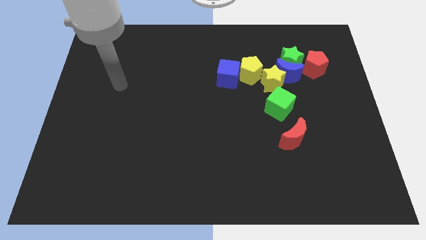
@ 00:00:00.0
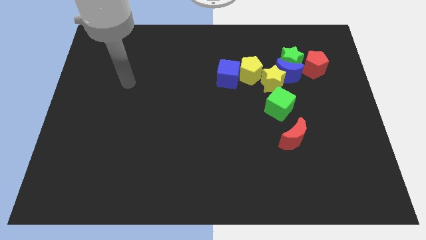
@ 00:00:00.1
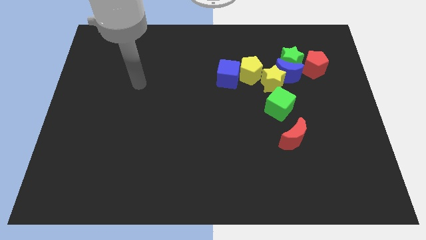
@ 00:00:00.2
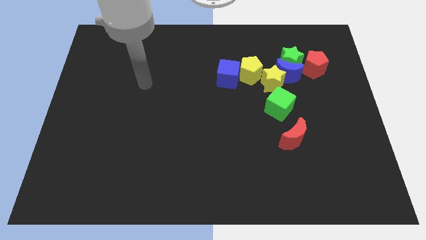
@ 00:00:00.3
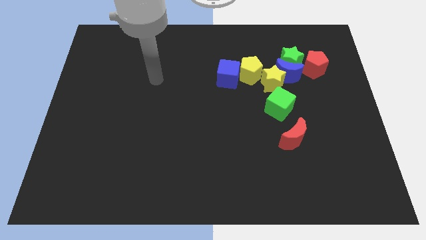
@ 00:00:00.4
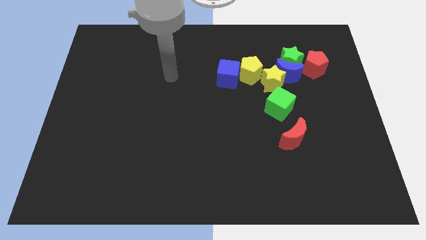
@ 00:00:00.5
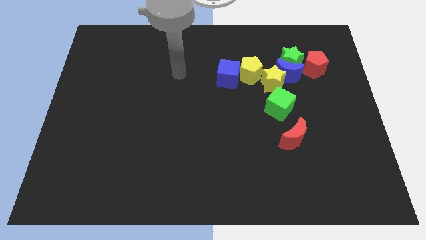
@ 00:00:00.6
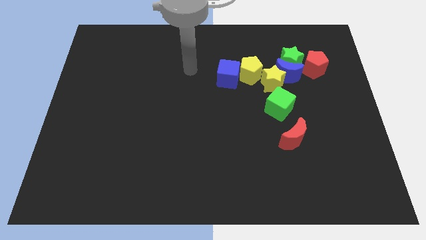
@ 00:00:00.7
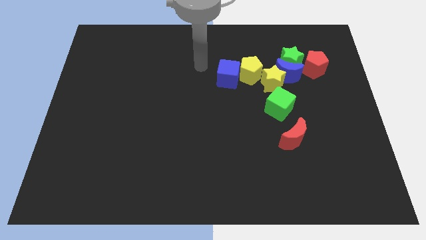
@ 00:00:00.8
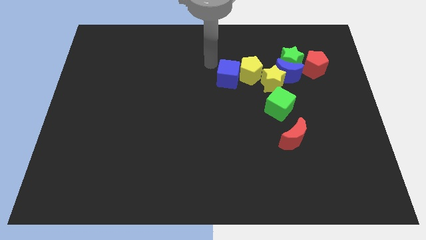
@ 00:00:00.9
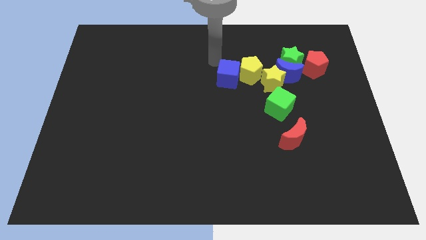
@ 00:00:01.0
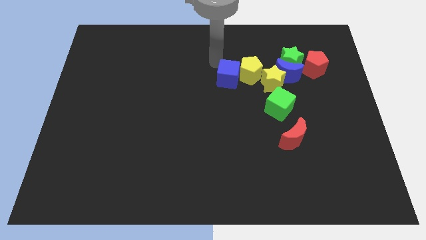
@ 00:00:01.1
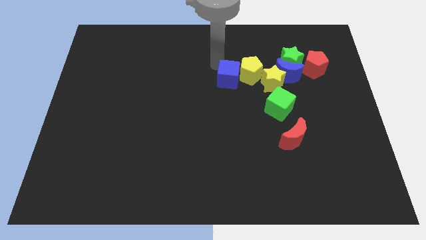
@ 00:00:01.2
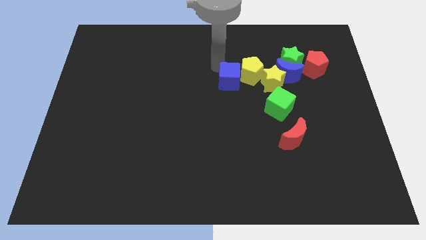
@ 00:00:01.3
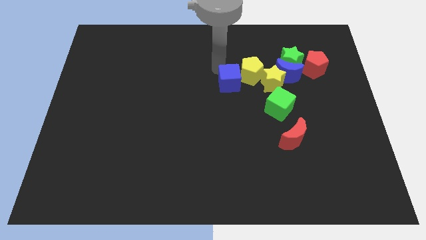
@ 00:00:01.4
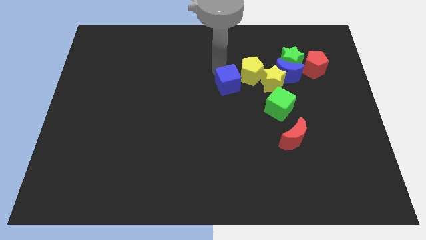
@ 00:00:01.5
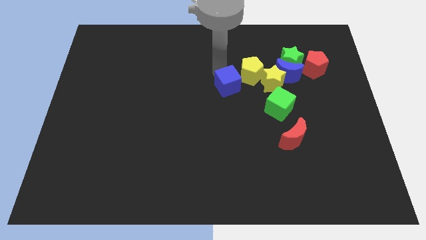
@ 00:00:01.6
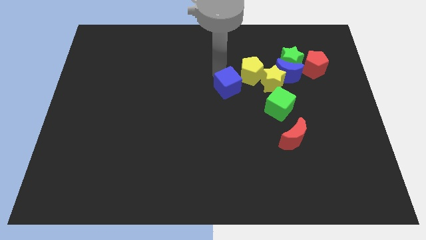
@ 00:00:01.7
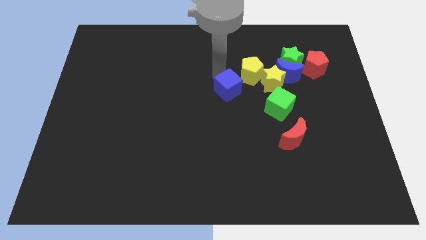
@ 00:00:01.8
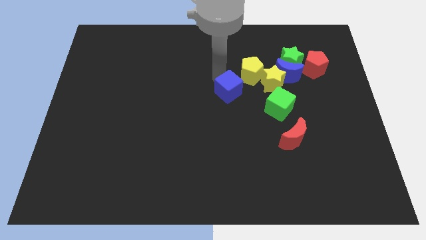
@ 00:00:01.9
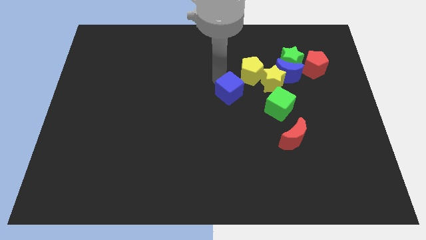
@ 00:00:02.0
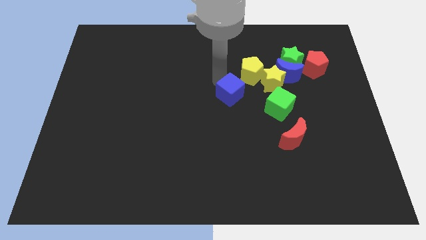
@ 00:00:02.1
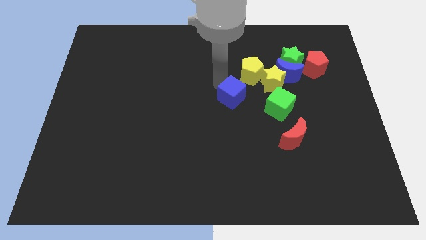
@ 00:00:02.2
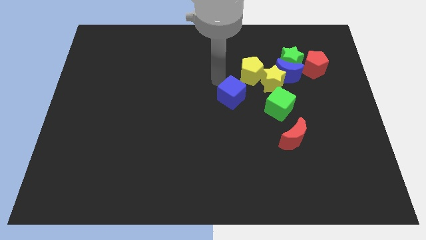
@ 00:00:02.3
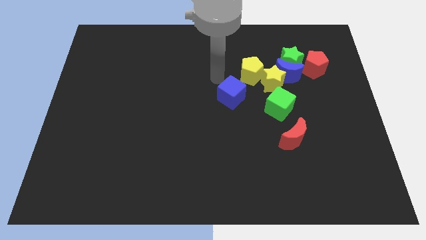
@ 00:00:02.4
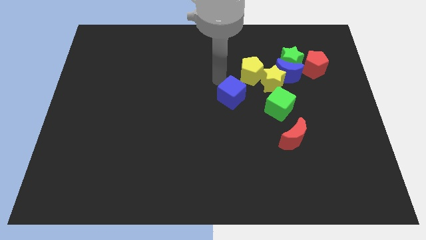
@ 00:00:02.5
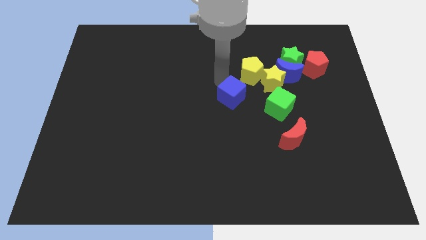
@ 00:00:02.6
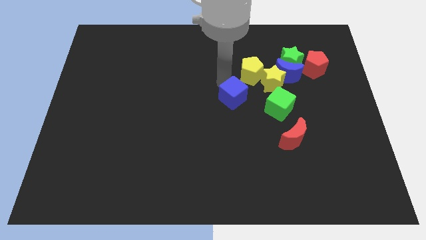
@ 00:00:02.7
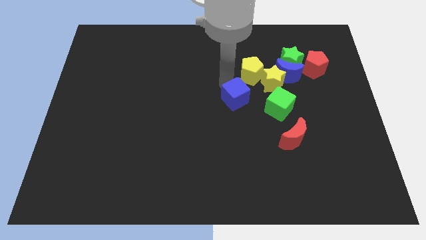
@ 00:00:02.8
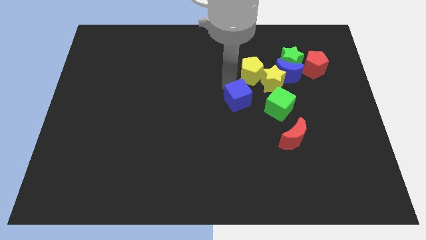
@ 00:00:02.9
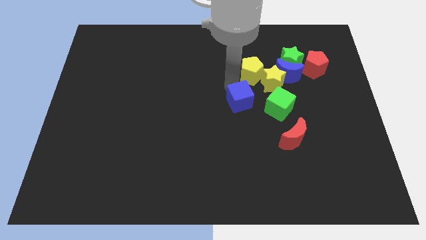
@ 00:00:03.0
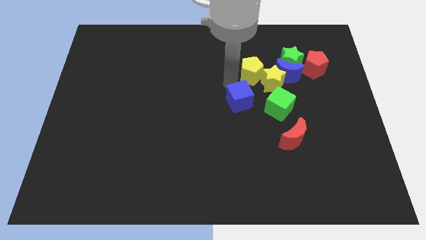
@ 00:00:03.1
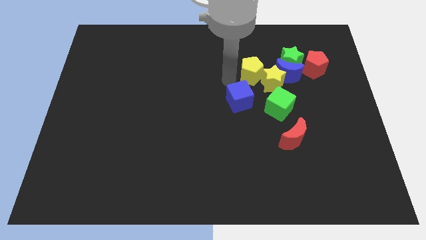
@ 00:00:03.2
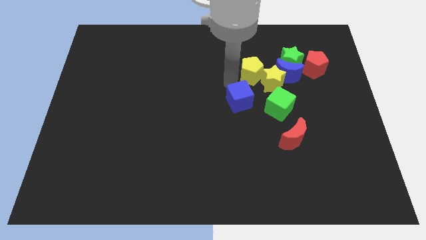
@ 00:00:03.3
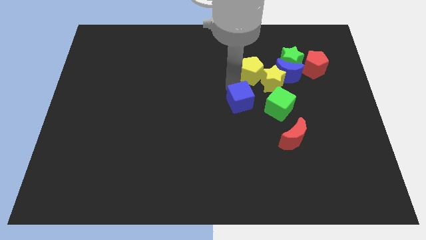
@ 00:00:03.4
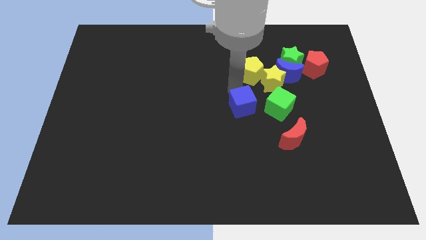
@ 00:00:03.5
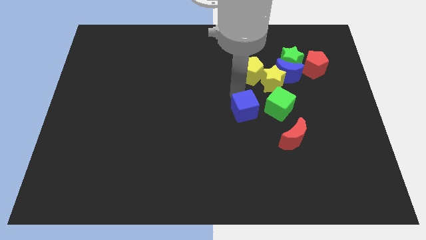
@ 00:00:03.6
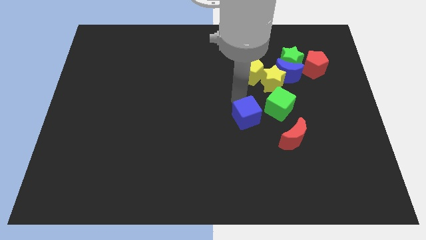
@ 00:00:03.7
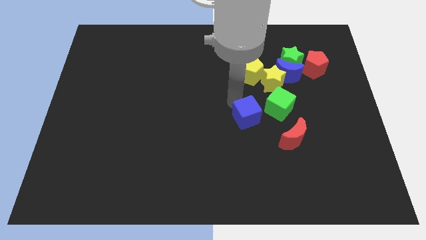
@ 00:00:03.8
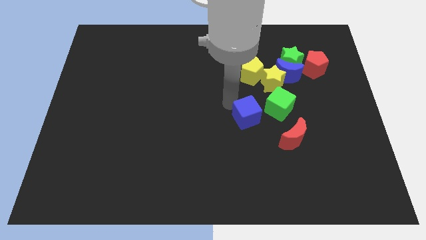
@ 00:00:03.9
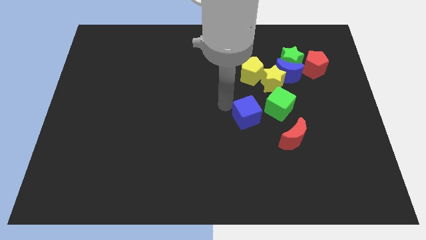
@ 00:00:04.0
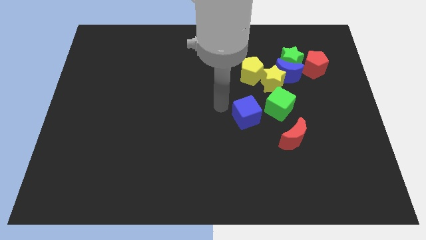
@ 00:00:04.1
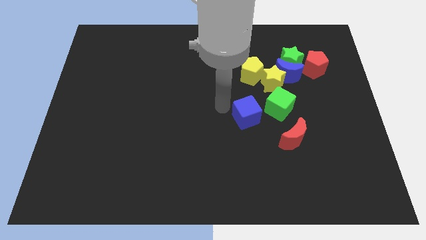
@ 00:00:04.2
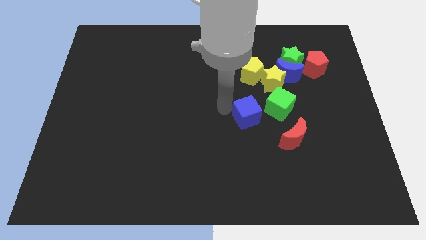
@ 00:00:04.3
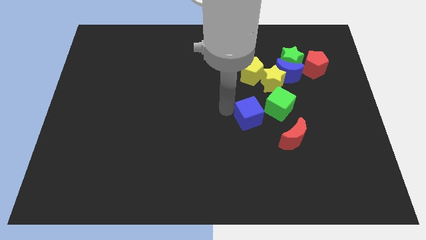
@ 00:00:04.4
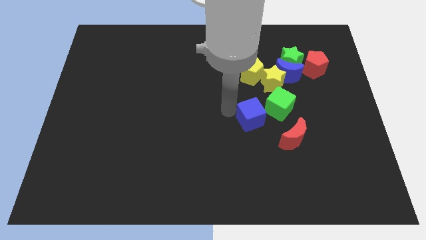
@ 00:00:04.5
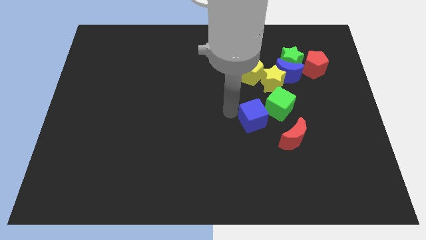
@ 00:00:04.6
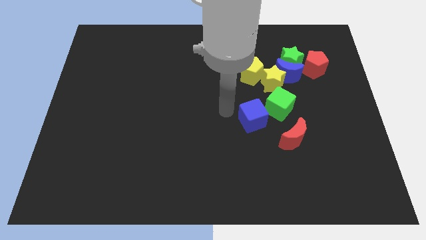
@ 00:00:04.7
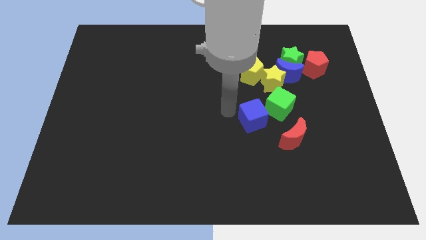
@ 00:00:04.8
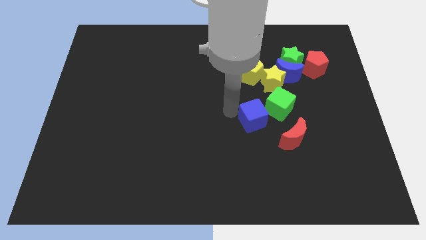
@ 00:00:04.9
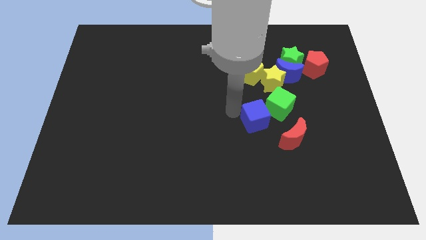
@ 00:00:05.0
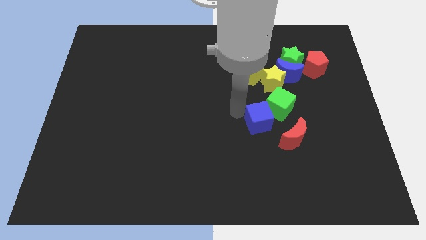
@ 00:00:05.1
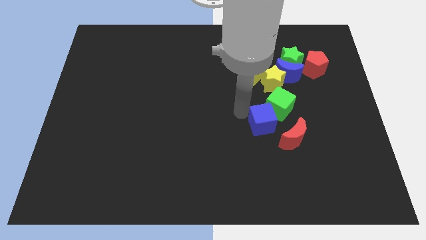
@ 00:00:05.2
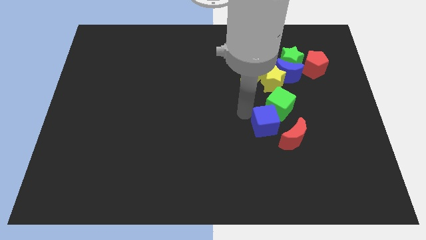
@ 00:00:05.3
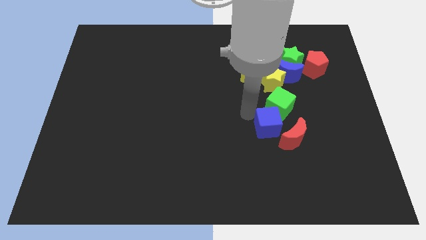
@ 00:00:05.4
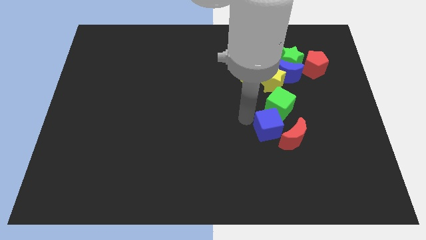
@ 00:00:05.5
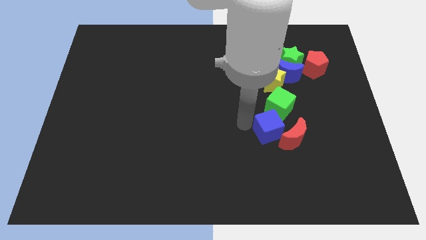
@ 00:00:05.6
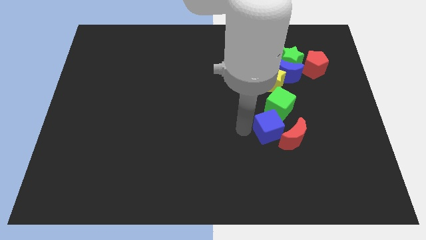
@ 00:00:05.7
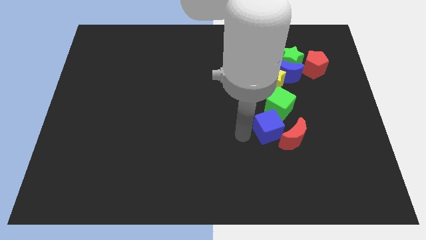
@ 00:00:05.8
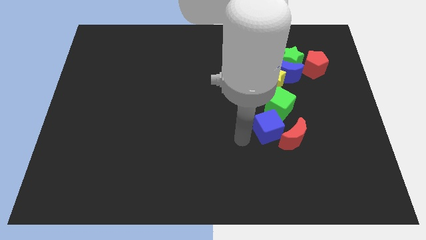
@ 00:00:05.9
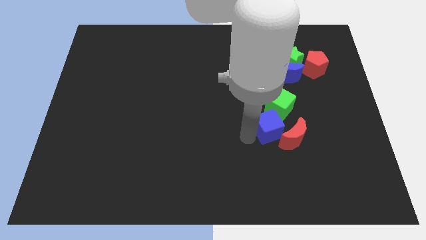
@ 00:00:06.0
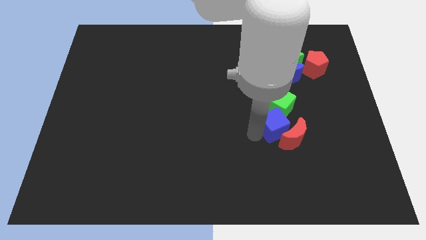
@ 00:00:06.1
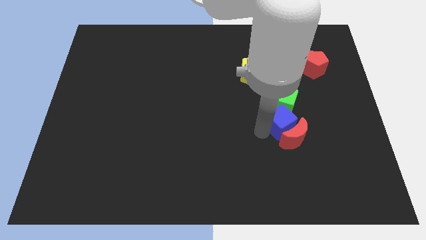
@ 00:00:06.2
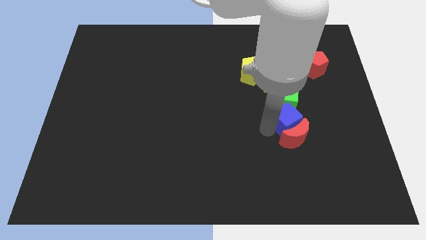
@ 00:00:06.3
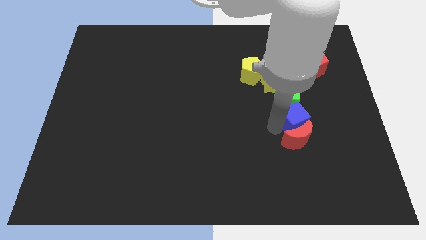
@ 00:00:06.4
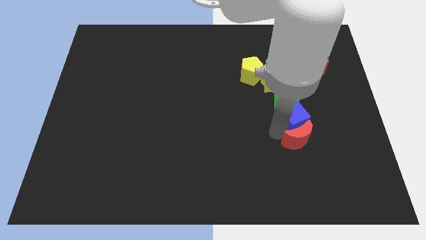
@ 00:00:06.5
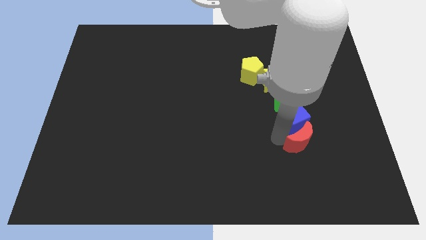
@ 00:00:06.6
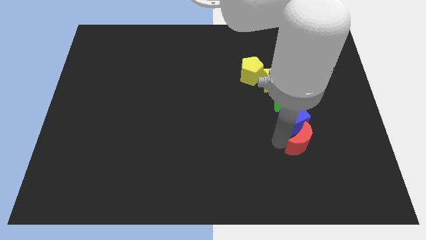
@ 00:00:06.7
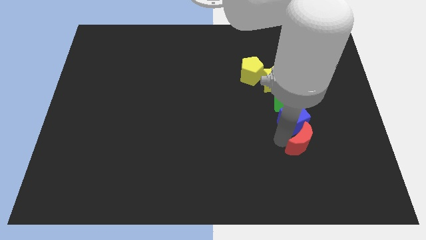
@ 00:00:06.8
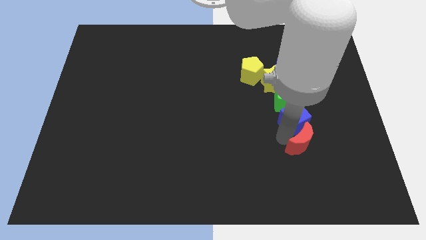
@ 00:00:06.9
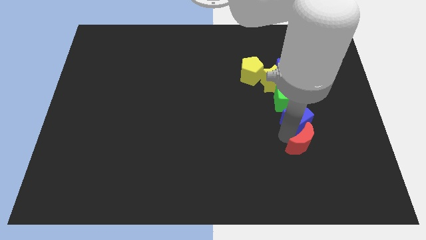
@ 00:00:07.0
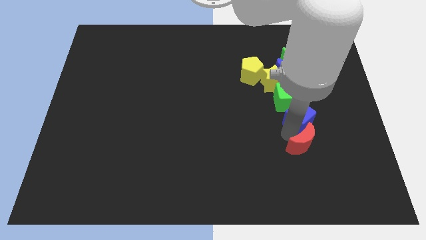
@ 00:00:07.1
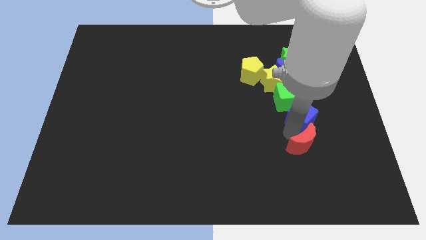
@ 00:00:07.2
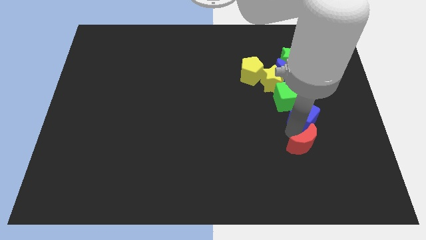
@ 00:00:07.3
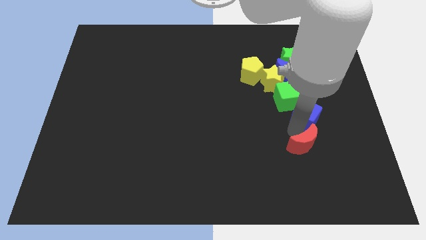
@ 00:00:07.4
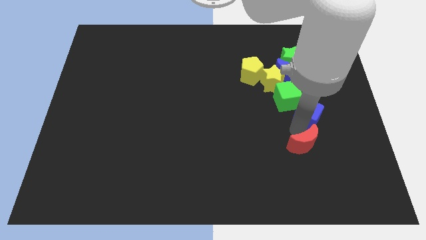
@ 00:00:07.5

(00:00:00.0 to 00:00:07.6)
slide the blue cube to the right a little bit
